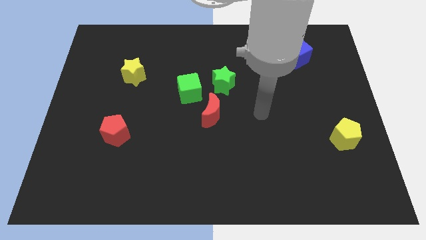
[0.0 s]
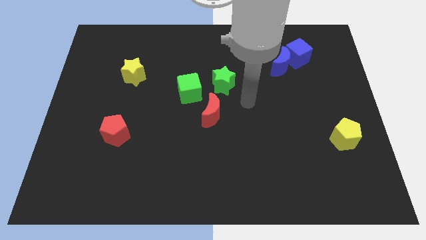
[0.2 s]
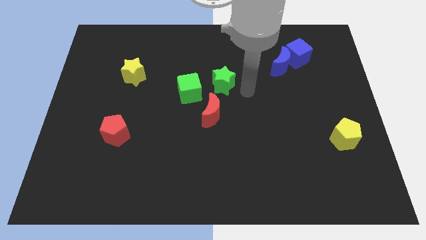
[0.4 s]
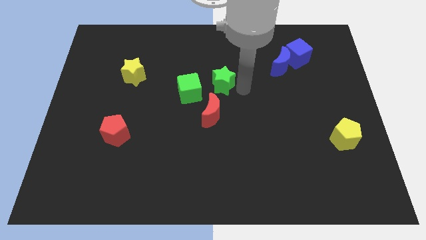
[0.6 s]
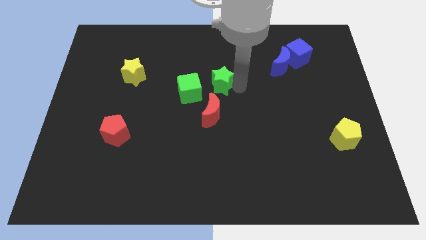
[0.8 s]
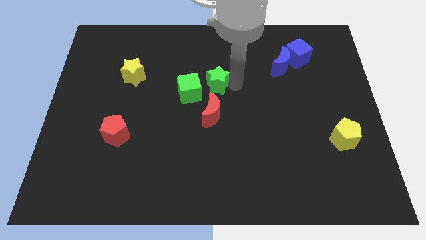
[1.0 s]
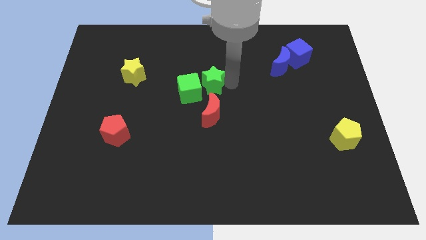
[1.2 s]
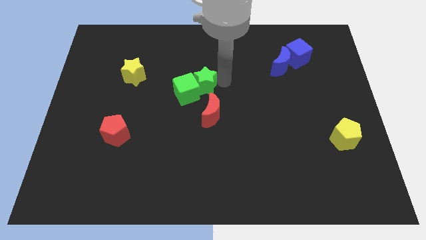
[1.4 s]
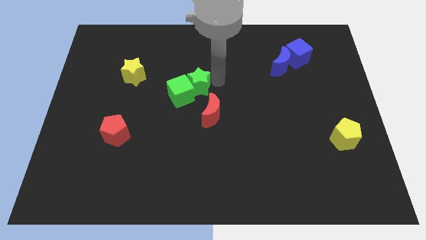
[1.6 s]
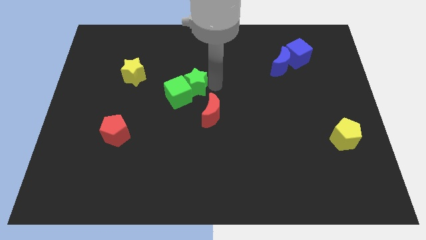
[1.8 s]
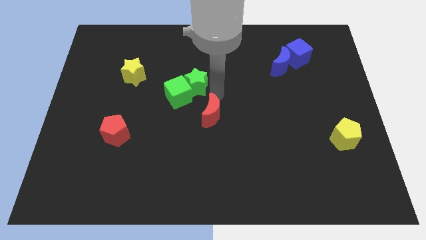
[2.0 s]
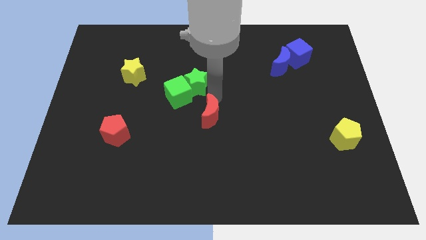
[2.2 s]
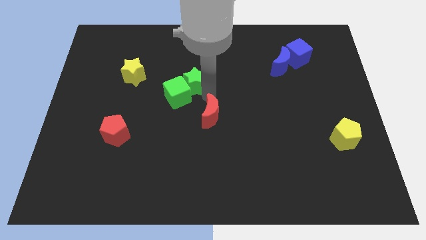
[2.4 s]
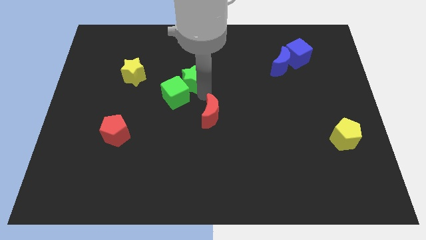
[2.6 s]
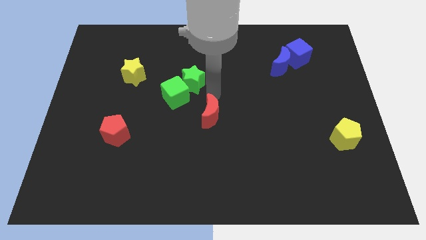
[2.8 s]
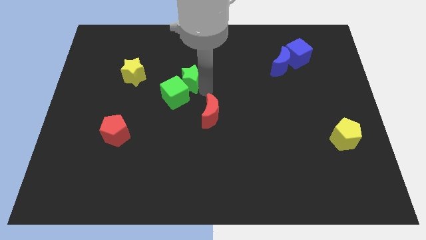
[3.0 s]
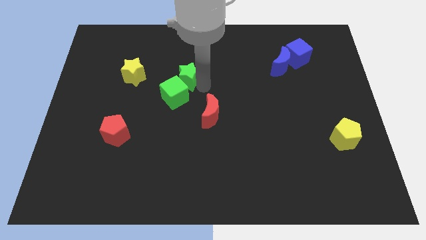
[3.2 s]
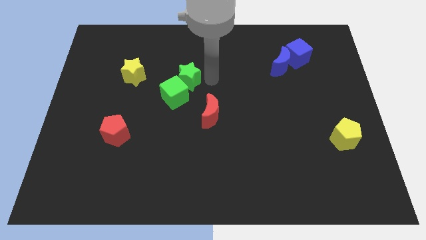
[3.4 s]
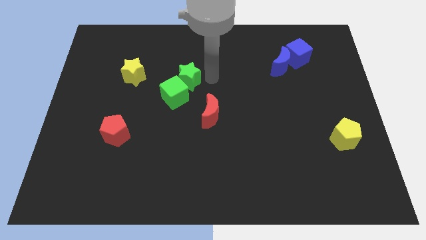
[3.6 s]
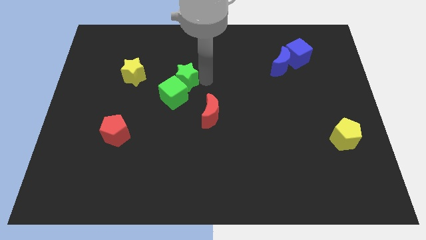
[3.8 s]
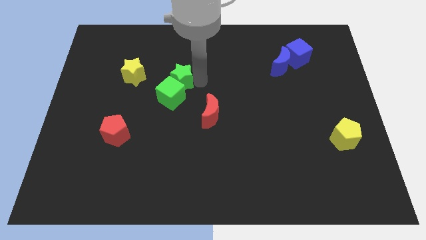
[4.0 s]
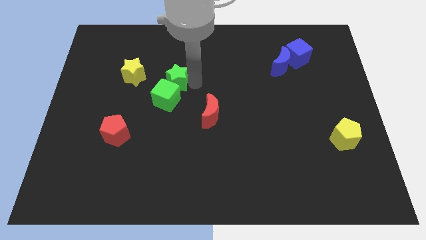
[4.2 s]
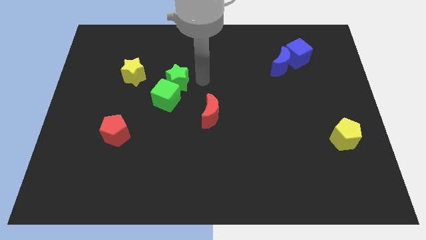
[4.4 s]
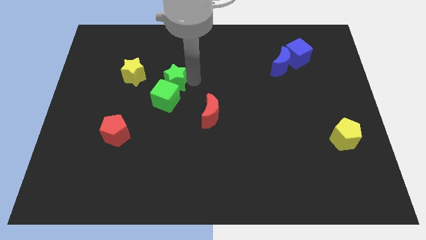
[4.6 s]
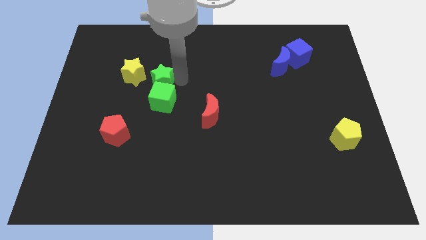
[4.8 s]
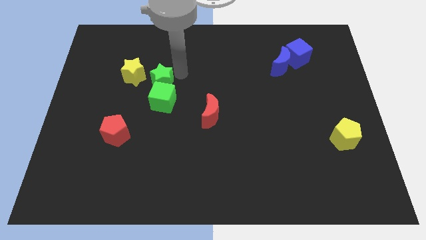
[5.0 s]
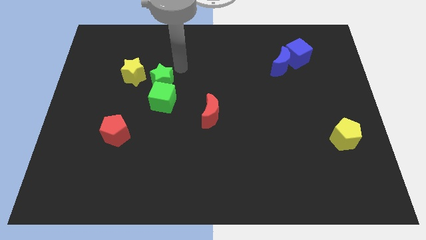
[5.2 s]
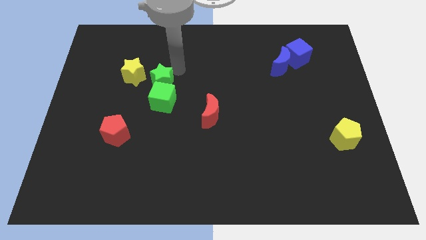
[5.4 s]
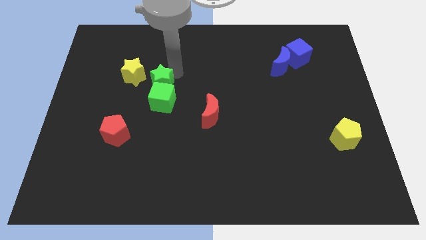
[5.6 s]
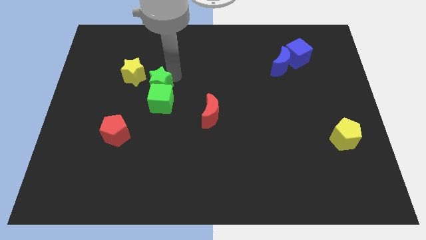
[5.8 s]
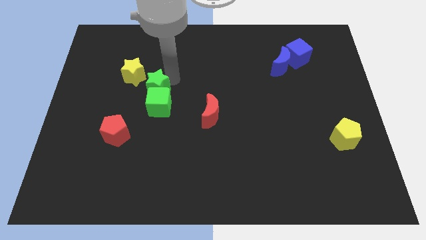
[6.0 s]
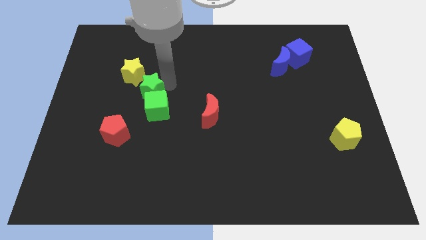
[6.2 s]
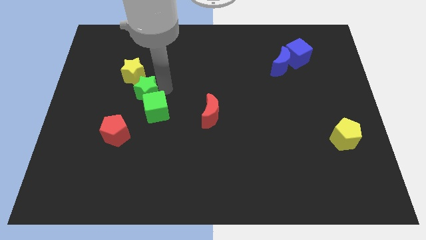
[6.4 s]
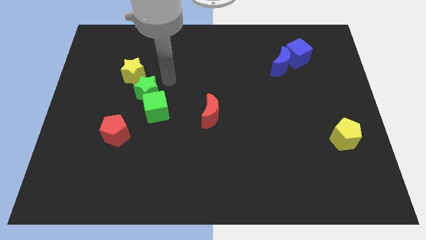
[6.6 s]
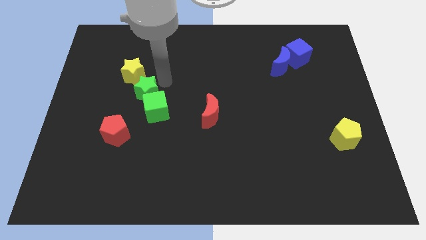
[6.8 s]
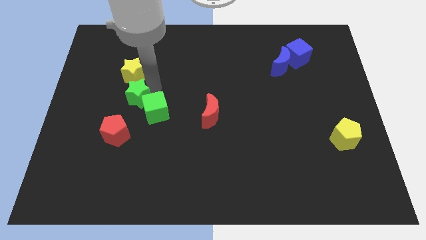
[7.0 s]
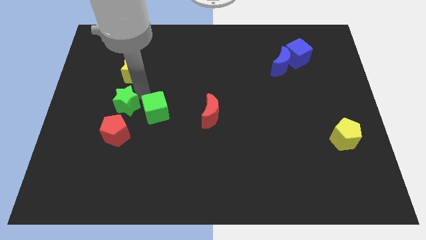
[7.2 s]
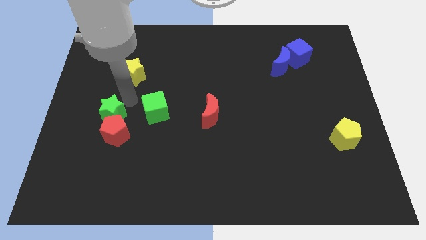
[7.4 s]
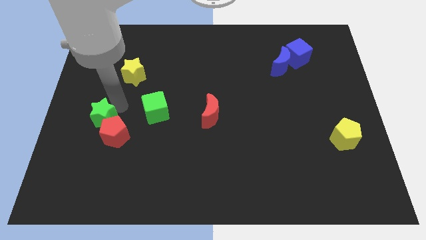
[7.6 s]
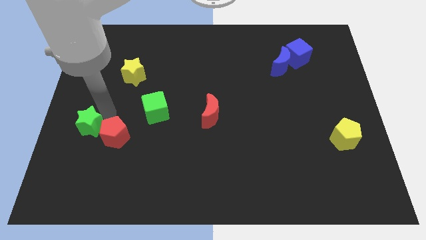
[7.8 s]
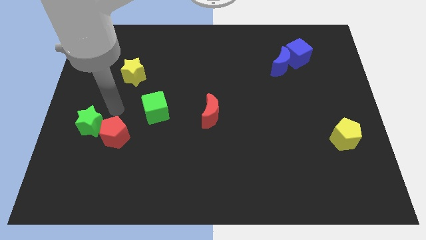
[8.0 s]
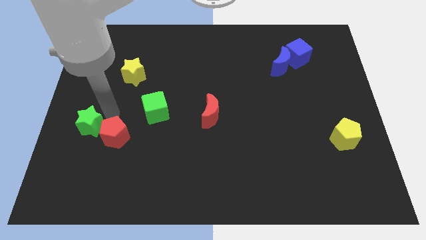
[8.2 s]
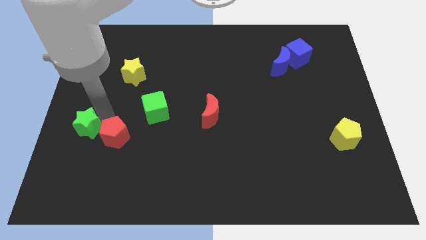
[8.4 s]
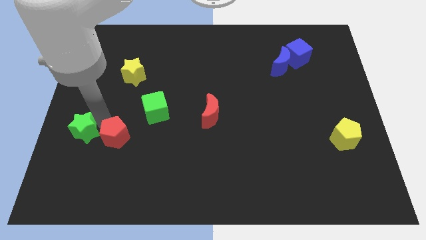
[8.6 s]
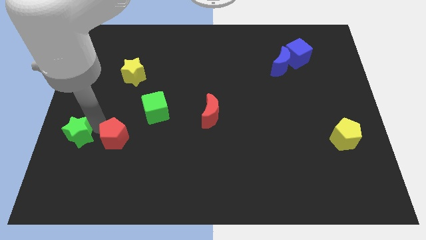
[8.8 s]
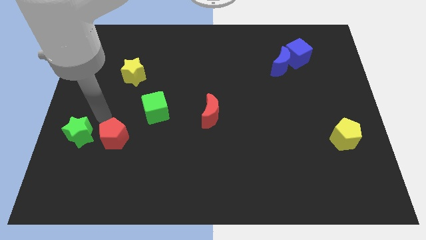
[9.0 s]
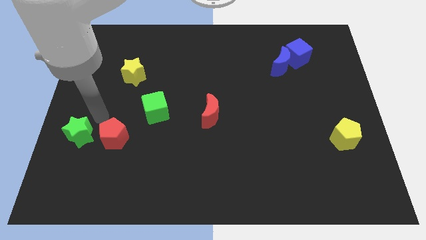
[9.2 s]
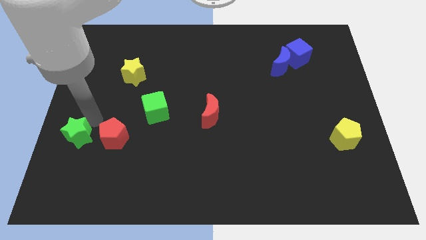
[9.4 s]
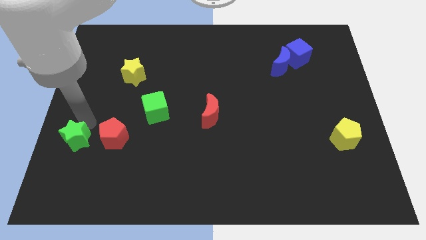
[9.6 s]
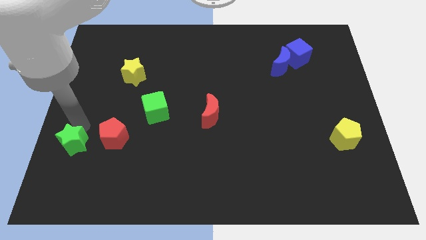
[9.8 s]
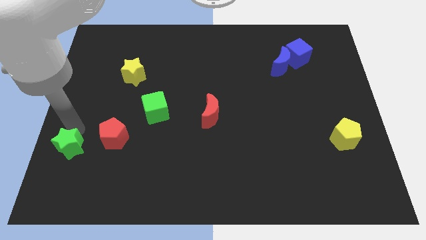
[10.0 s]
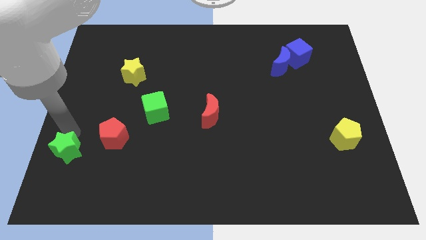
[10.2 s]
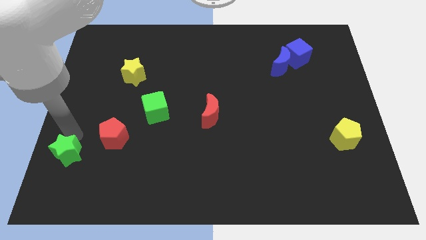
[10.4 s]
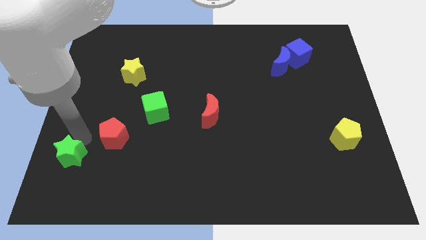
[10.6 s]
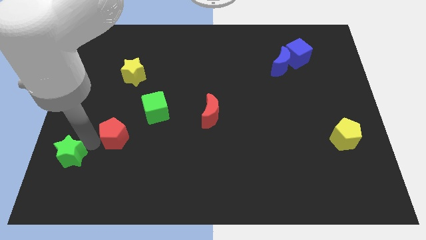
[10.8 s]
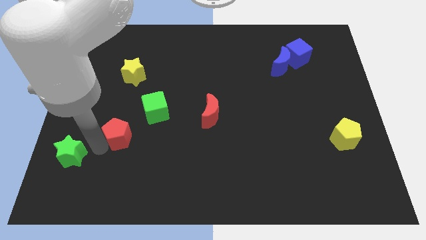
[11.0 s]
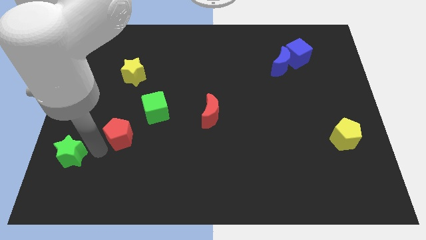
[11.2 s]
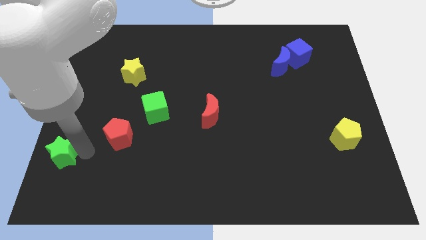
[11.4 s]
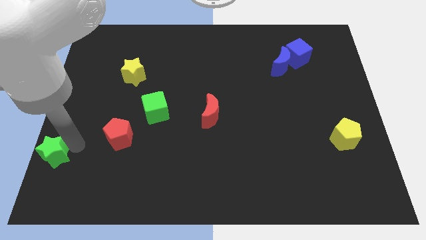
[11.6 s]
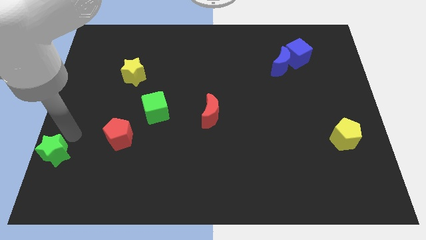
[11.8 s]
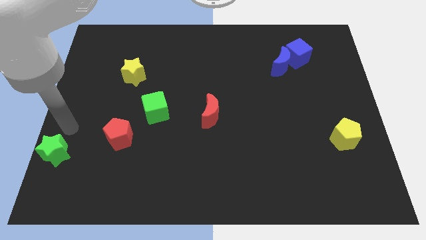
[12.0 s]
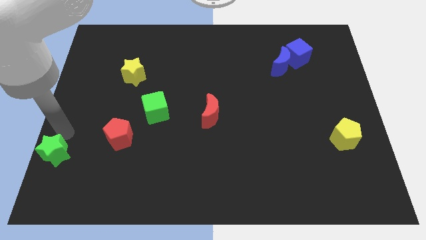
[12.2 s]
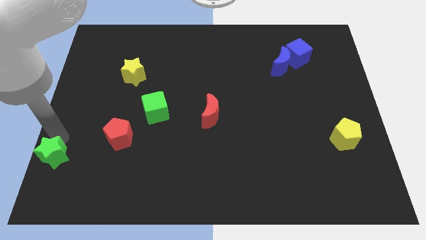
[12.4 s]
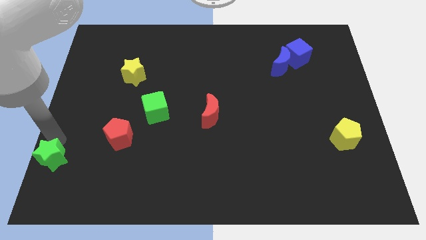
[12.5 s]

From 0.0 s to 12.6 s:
push the green star to the lower left corner

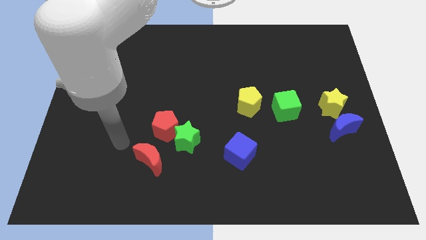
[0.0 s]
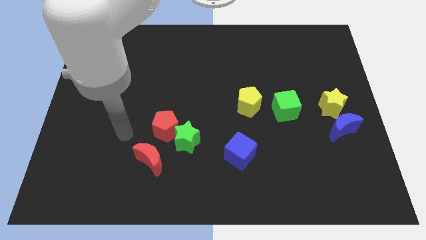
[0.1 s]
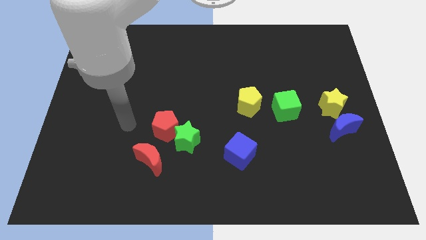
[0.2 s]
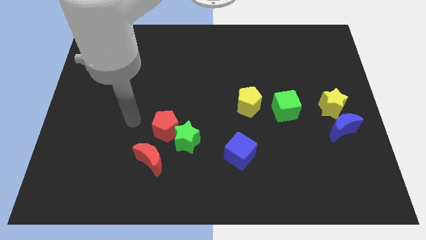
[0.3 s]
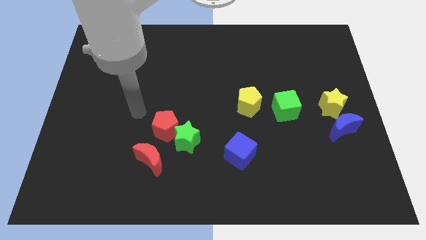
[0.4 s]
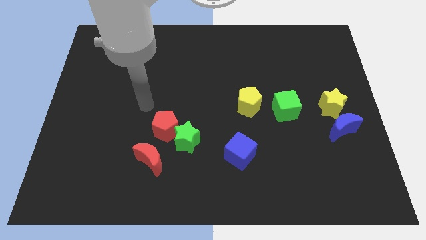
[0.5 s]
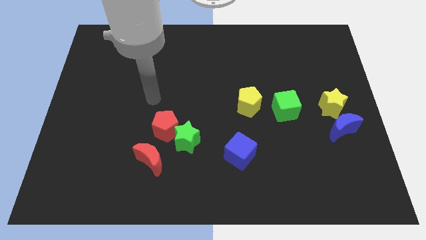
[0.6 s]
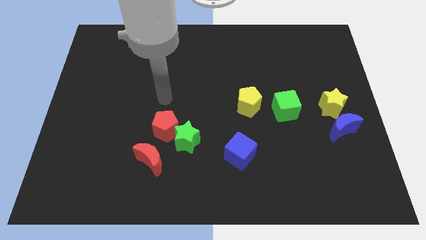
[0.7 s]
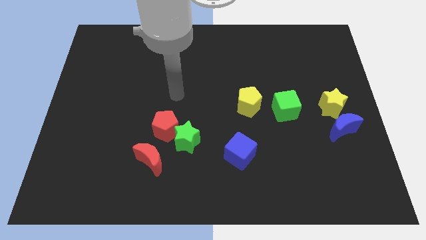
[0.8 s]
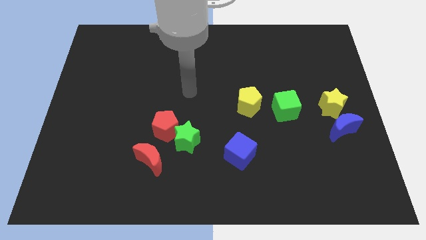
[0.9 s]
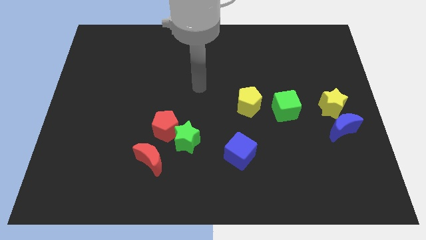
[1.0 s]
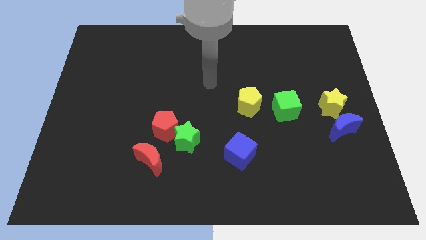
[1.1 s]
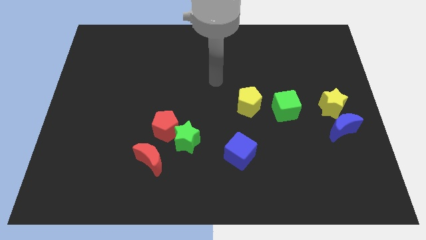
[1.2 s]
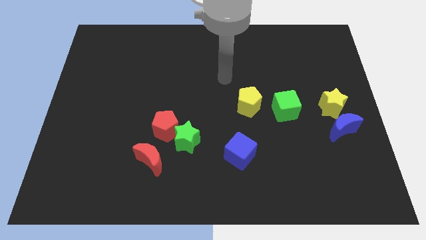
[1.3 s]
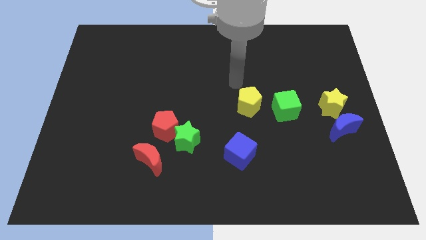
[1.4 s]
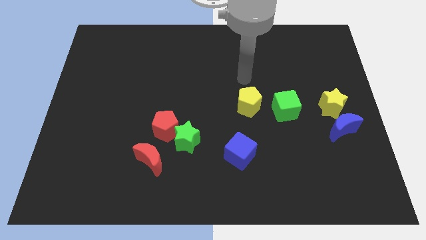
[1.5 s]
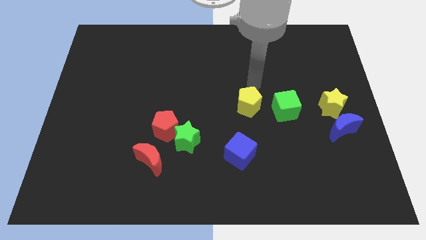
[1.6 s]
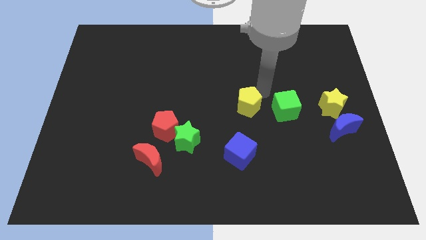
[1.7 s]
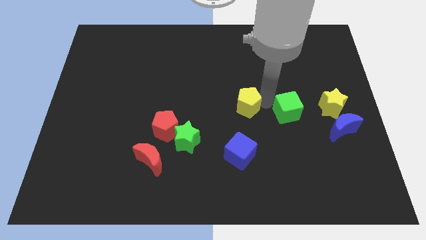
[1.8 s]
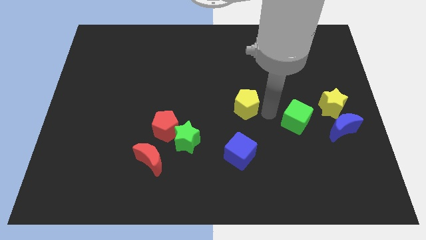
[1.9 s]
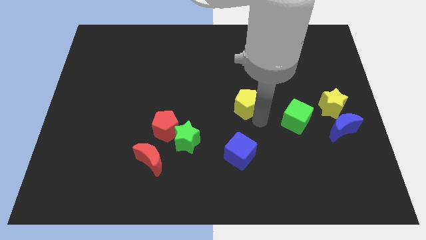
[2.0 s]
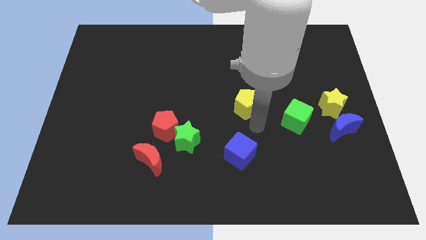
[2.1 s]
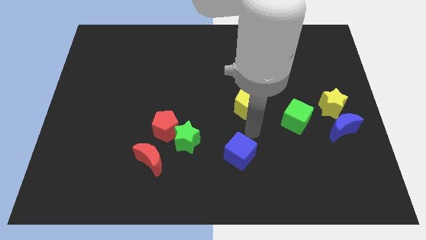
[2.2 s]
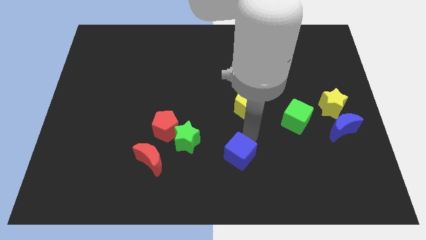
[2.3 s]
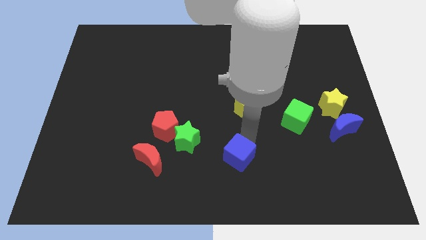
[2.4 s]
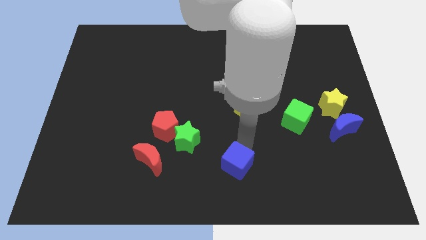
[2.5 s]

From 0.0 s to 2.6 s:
push the blue cube to the bottom side
